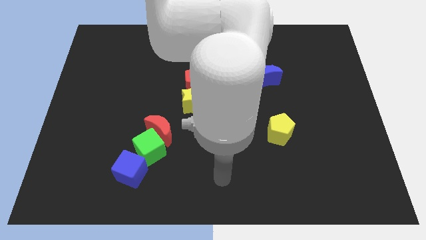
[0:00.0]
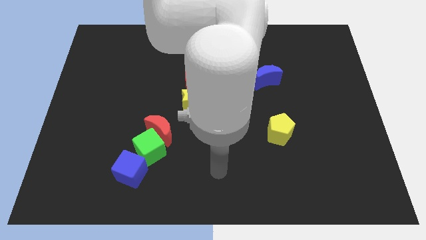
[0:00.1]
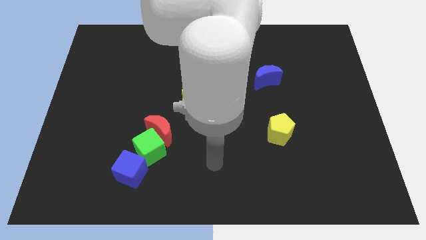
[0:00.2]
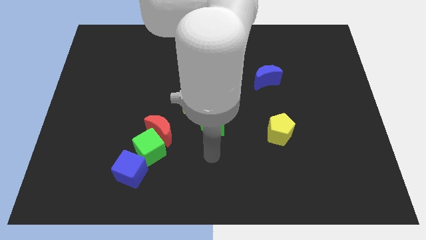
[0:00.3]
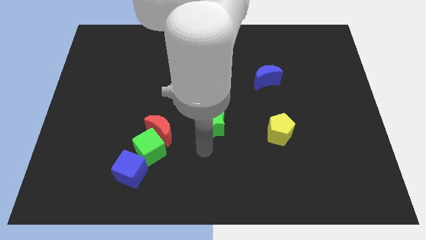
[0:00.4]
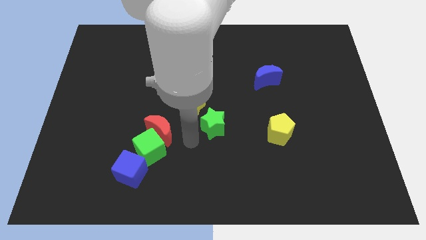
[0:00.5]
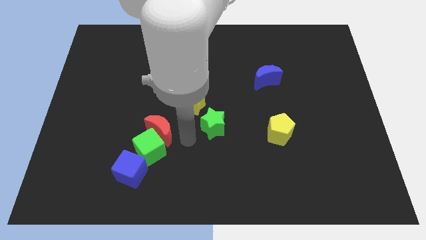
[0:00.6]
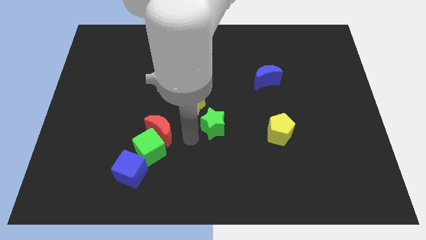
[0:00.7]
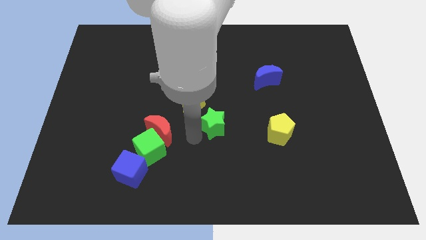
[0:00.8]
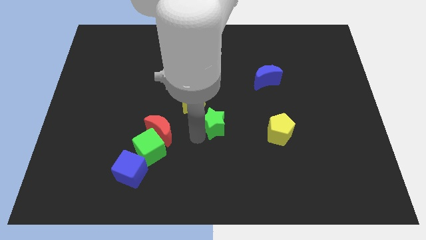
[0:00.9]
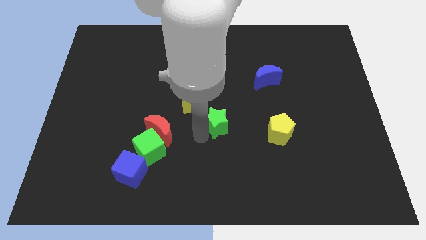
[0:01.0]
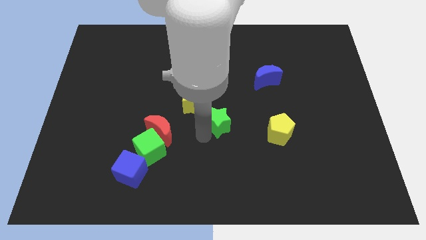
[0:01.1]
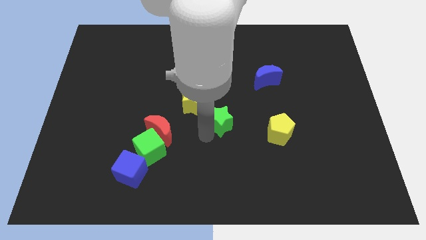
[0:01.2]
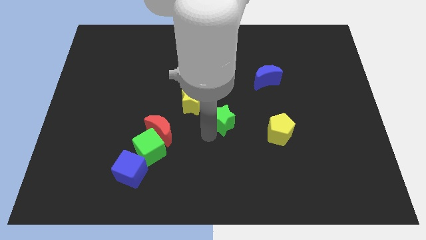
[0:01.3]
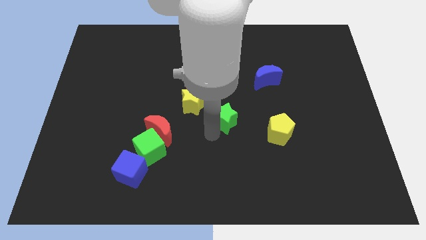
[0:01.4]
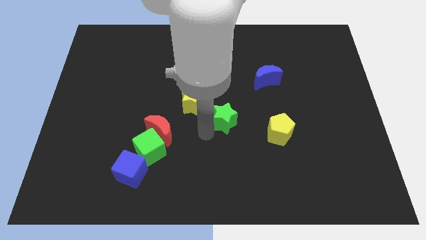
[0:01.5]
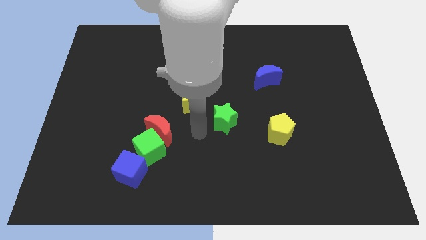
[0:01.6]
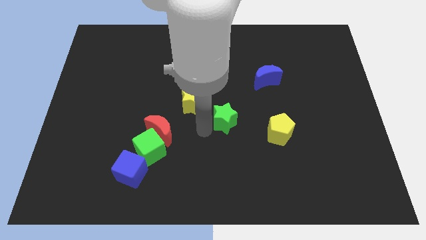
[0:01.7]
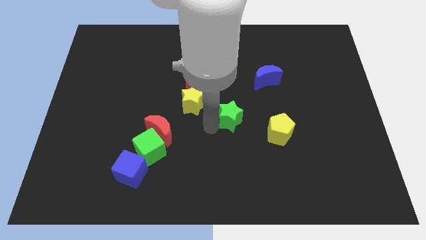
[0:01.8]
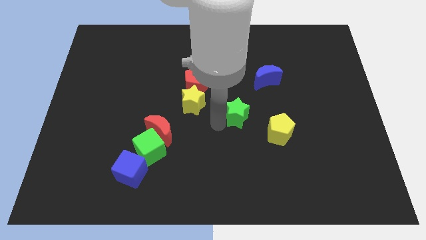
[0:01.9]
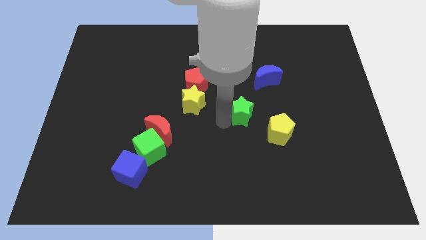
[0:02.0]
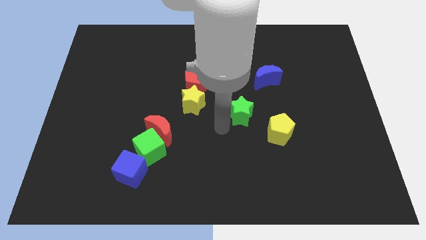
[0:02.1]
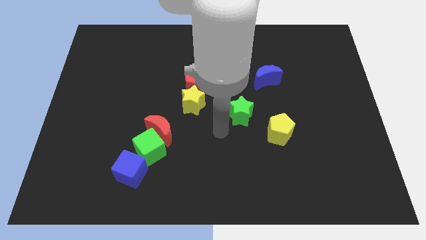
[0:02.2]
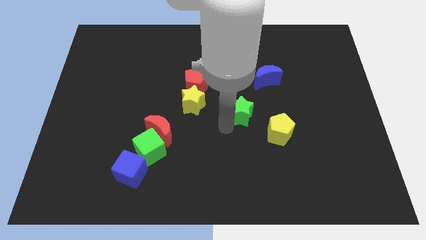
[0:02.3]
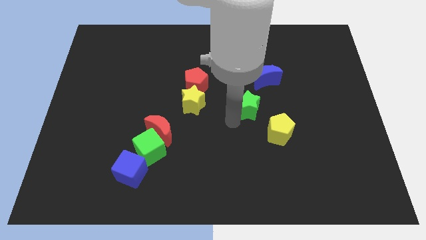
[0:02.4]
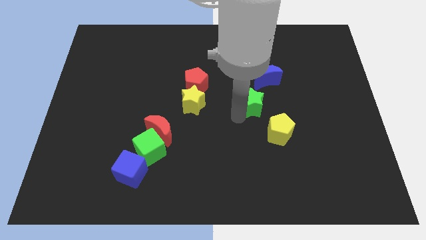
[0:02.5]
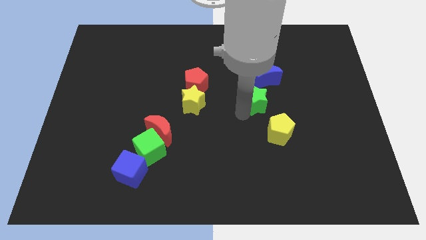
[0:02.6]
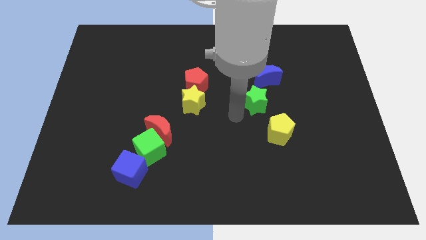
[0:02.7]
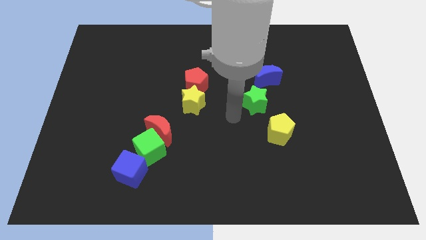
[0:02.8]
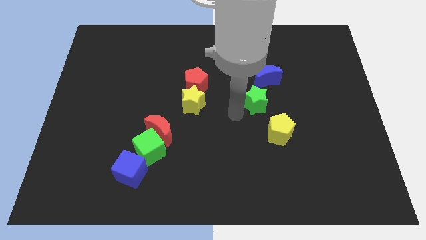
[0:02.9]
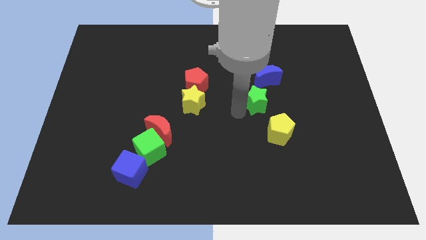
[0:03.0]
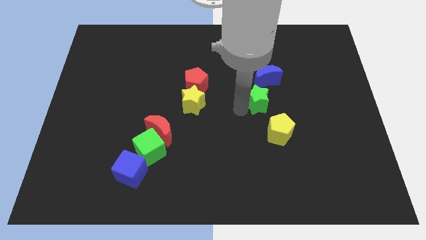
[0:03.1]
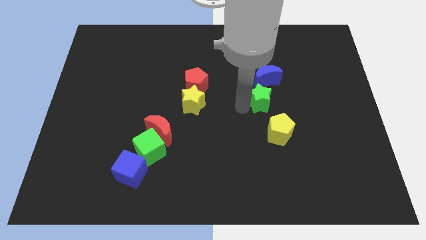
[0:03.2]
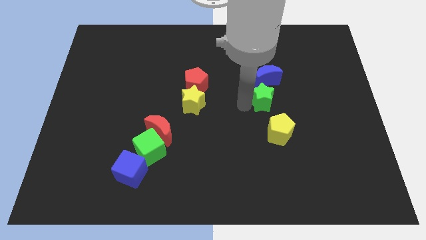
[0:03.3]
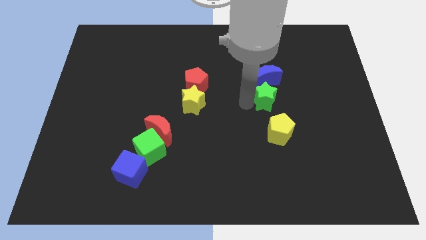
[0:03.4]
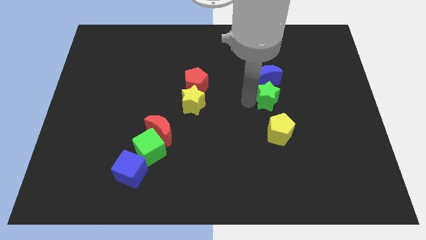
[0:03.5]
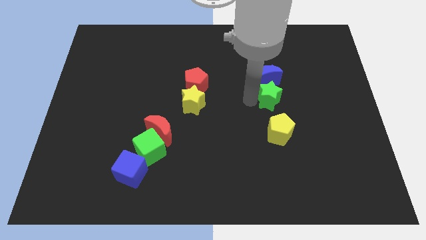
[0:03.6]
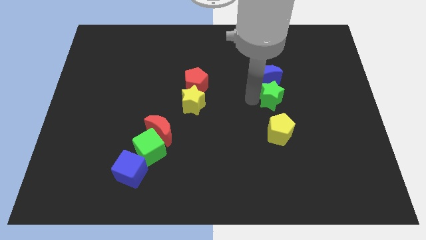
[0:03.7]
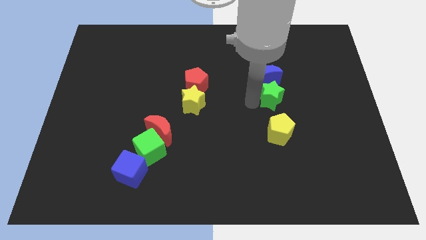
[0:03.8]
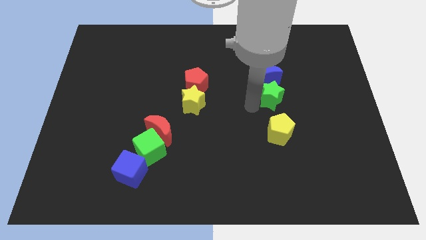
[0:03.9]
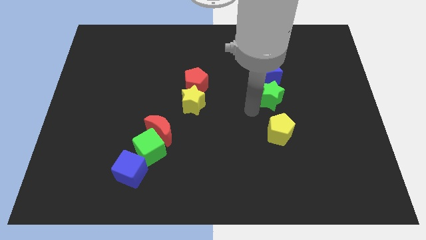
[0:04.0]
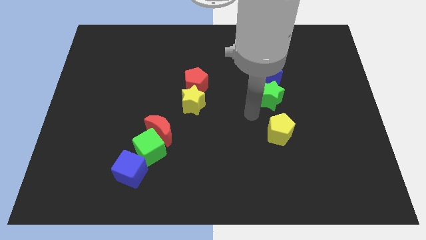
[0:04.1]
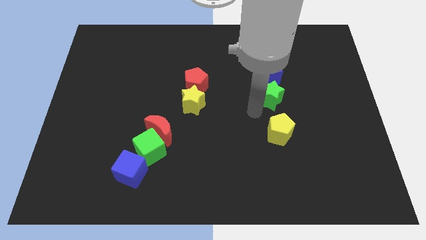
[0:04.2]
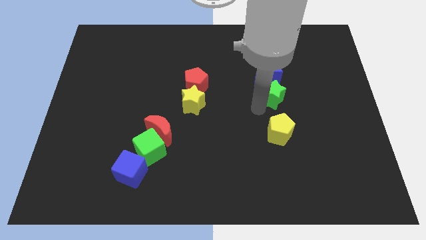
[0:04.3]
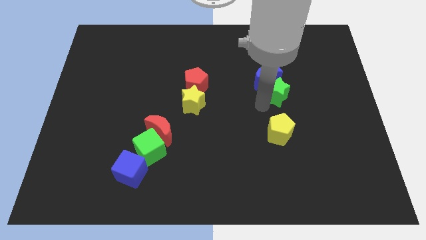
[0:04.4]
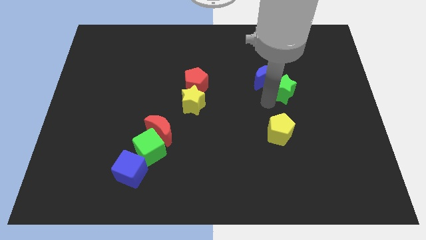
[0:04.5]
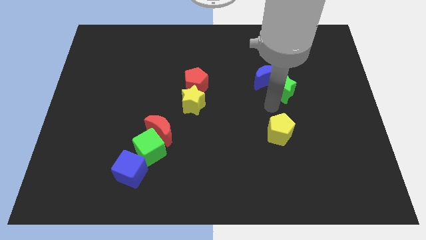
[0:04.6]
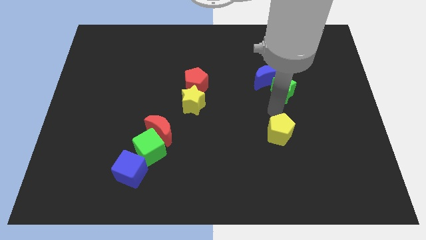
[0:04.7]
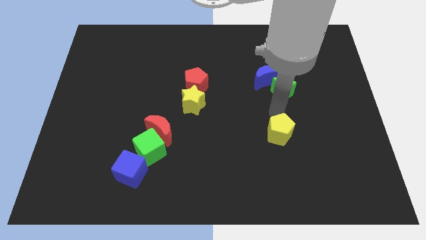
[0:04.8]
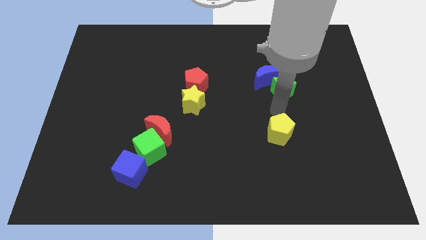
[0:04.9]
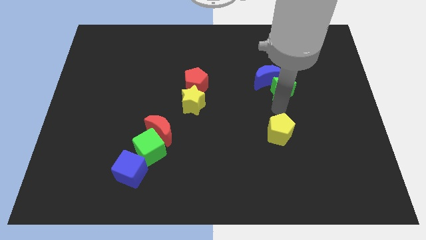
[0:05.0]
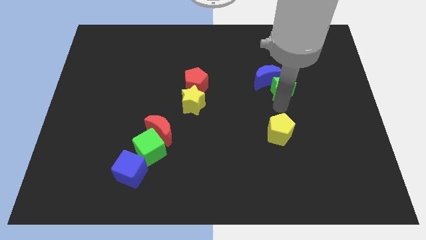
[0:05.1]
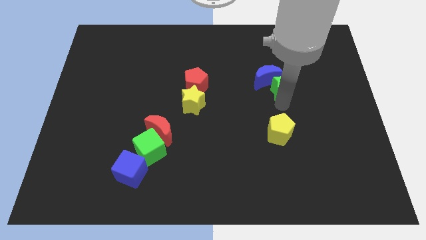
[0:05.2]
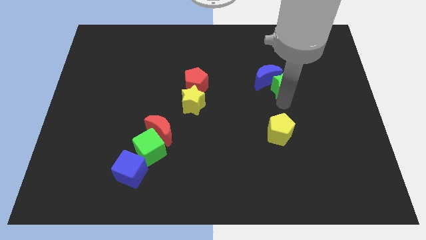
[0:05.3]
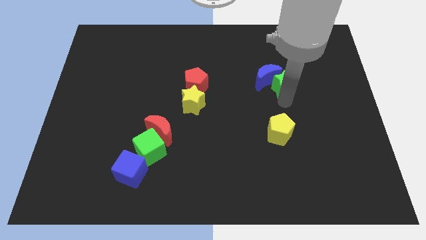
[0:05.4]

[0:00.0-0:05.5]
slide the green star up and then right

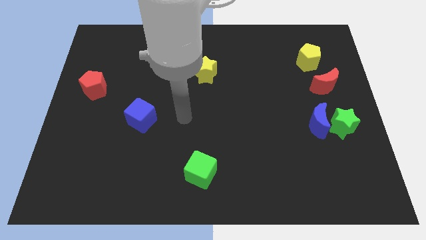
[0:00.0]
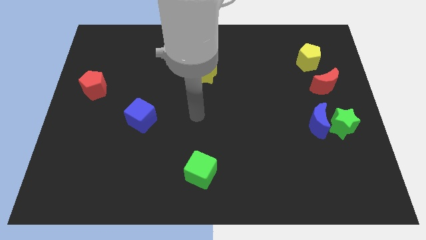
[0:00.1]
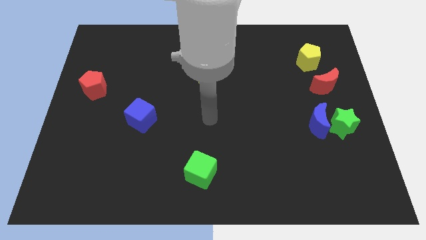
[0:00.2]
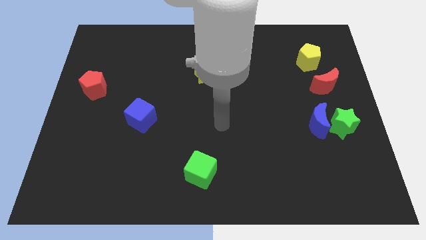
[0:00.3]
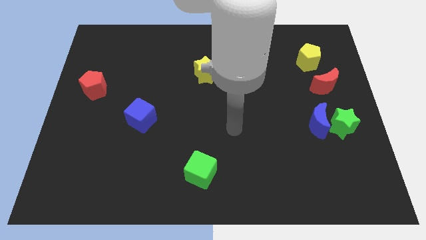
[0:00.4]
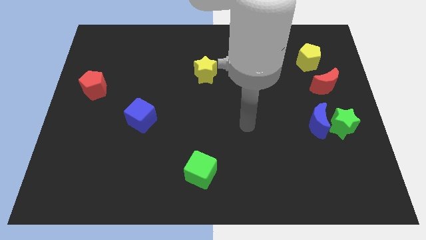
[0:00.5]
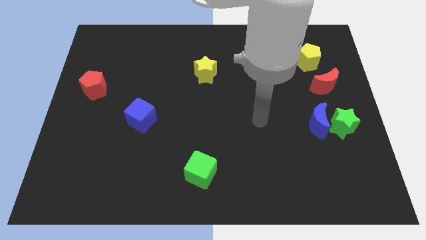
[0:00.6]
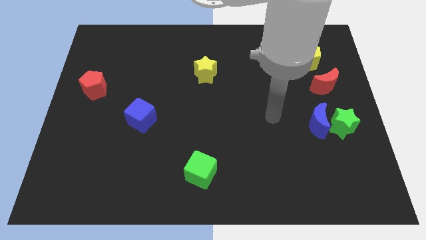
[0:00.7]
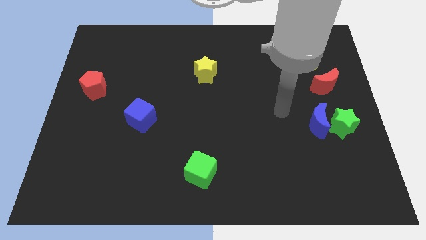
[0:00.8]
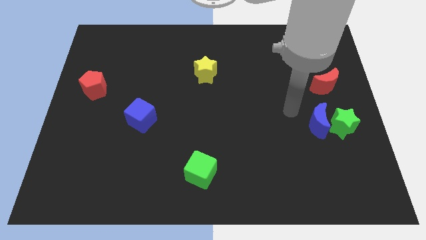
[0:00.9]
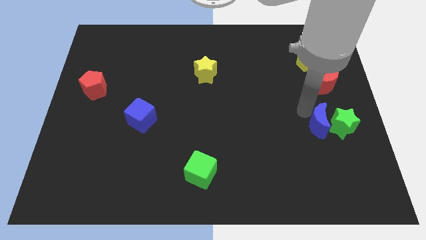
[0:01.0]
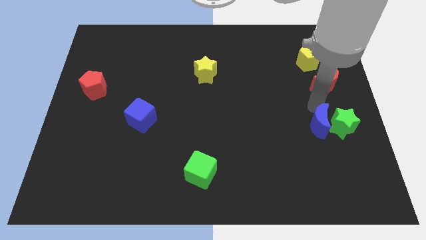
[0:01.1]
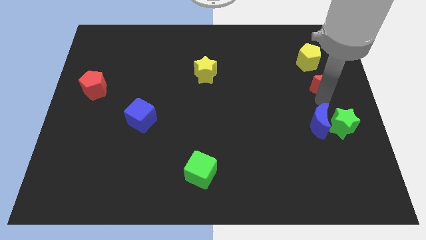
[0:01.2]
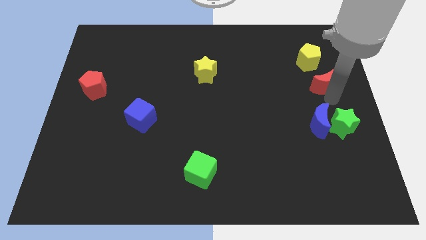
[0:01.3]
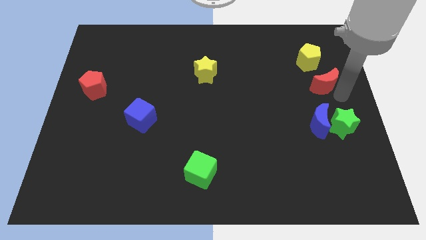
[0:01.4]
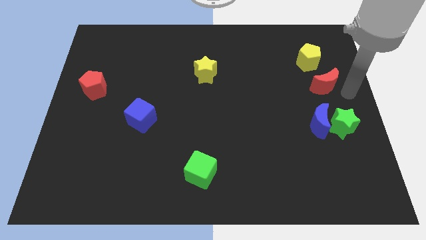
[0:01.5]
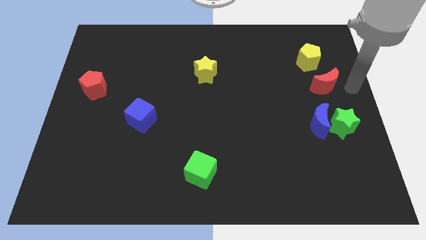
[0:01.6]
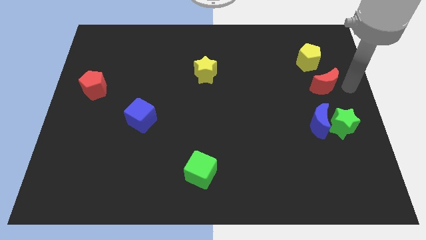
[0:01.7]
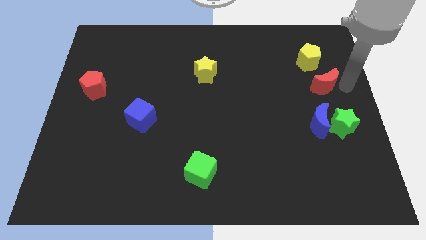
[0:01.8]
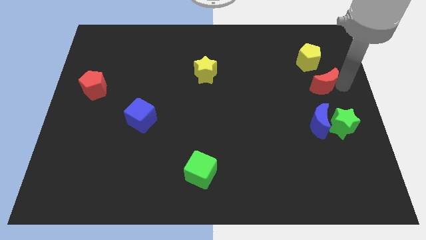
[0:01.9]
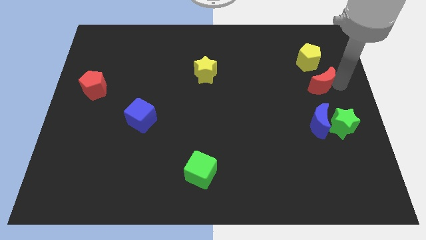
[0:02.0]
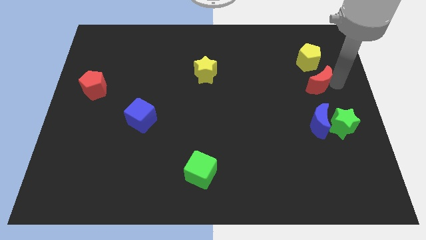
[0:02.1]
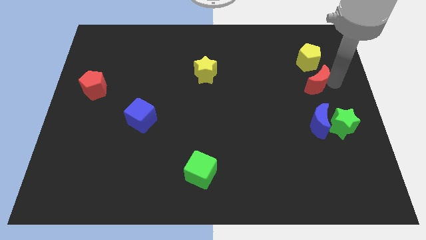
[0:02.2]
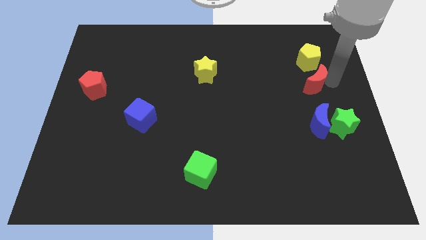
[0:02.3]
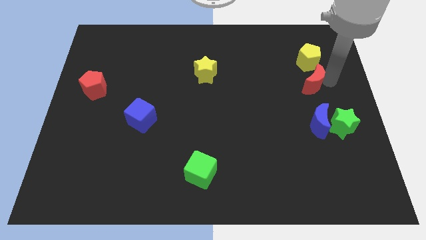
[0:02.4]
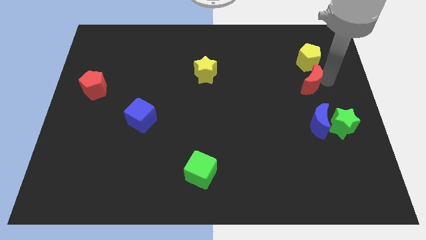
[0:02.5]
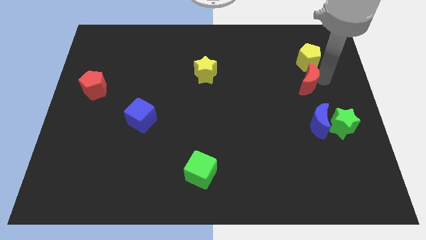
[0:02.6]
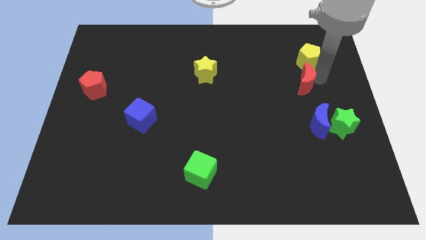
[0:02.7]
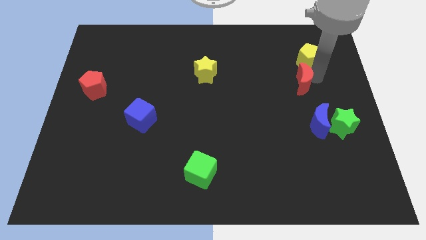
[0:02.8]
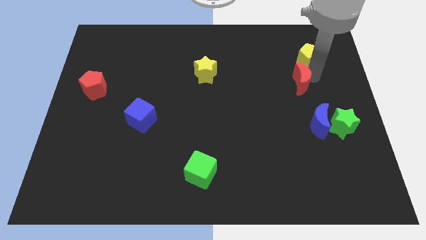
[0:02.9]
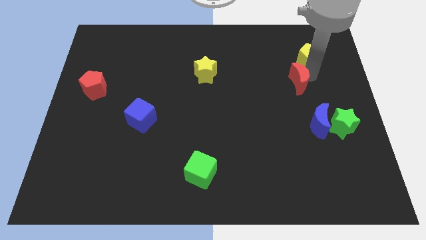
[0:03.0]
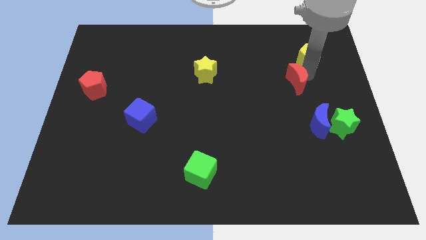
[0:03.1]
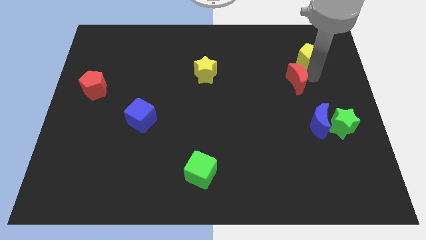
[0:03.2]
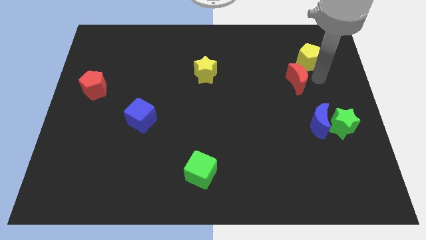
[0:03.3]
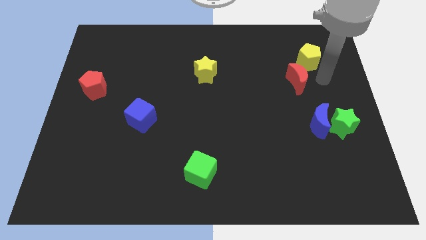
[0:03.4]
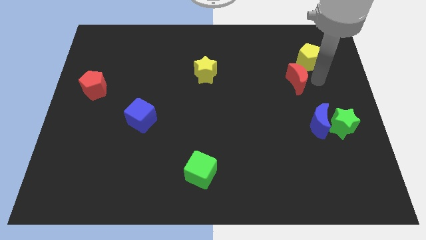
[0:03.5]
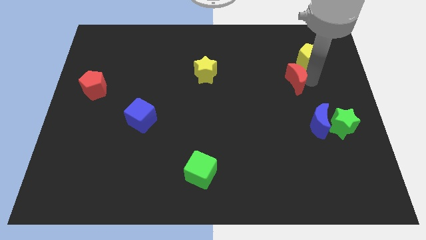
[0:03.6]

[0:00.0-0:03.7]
slide the red moon a bit to the left
